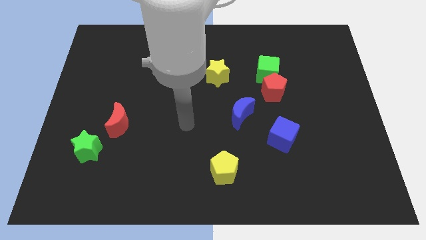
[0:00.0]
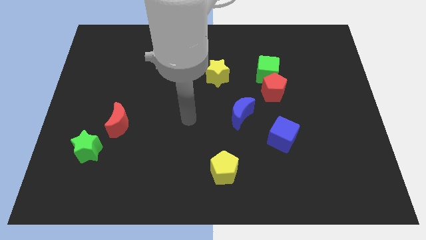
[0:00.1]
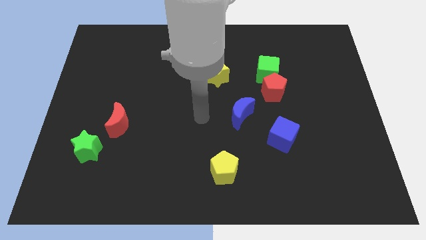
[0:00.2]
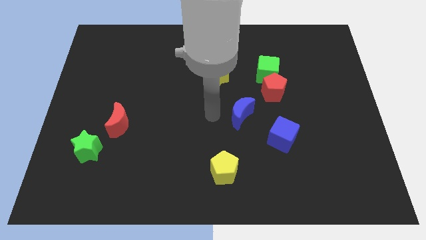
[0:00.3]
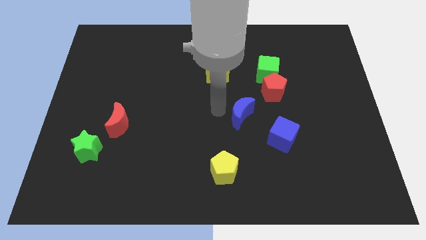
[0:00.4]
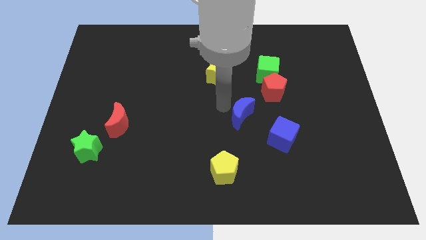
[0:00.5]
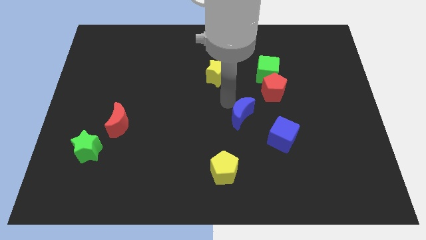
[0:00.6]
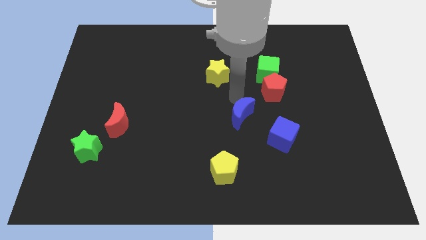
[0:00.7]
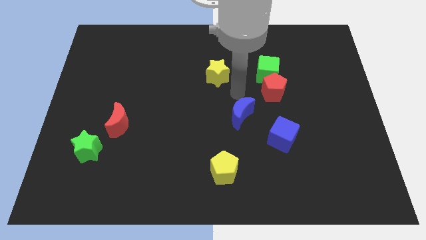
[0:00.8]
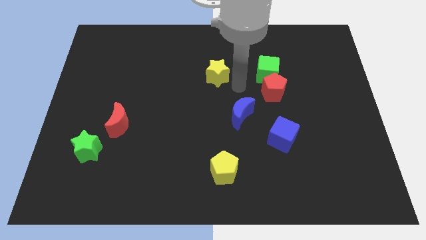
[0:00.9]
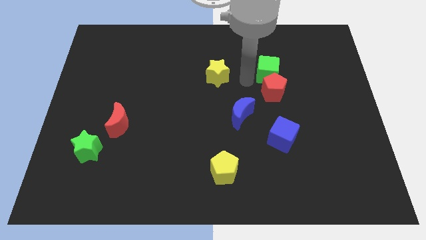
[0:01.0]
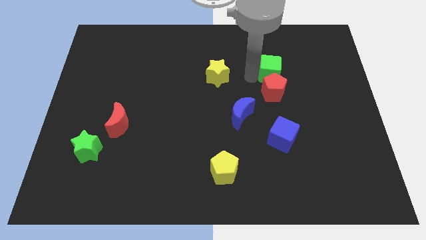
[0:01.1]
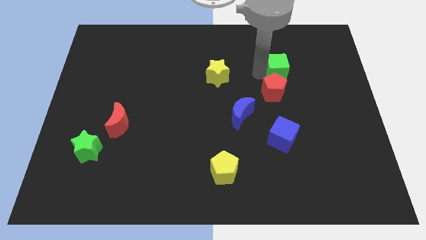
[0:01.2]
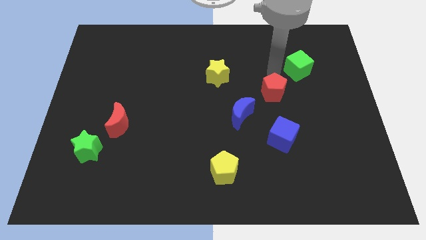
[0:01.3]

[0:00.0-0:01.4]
move the red pentagon away from the green cube

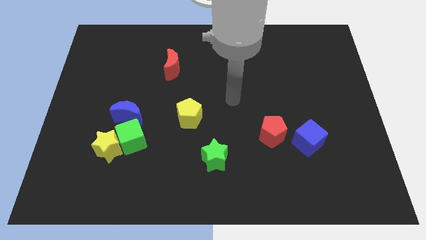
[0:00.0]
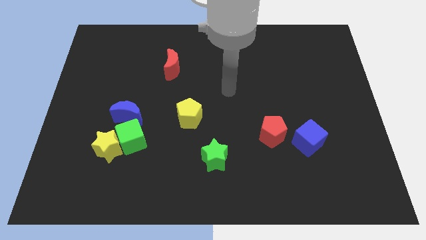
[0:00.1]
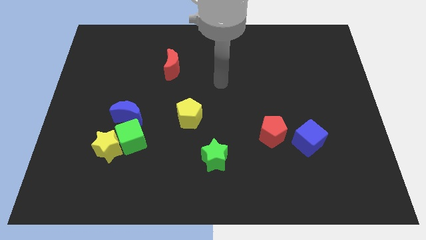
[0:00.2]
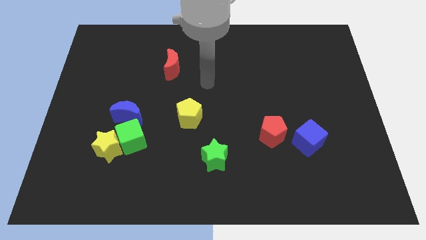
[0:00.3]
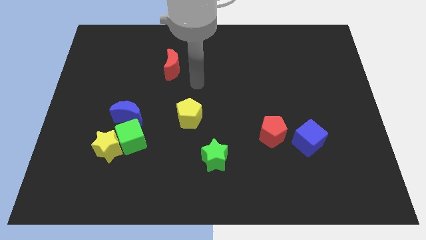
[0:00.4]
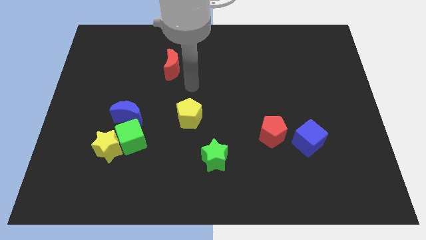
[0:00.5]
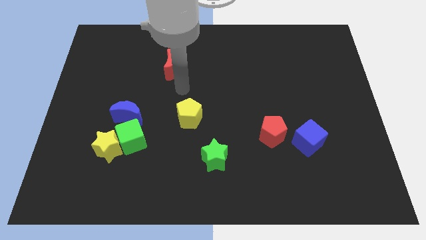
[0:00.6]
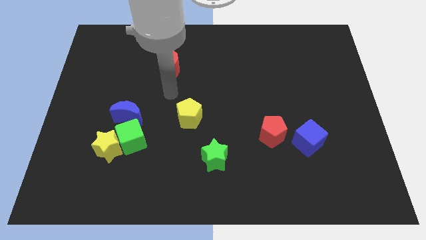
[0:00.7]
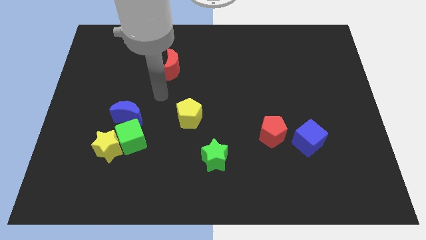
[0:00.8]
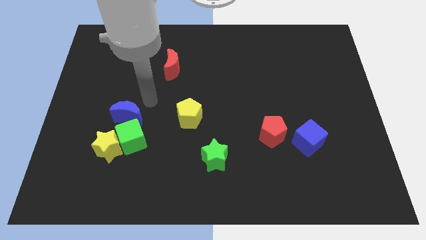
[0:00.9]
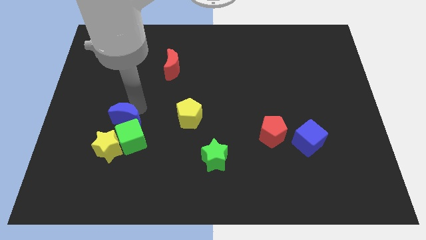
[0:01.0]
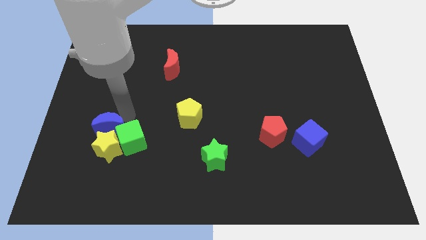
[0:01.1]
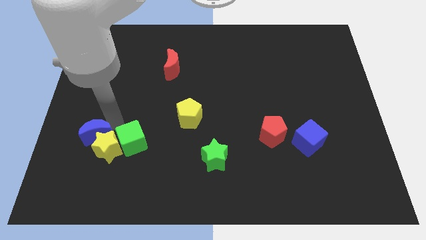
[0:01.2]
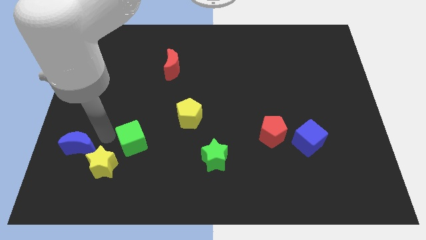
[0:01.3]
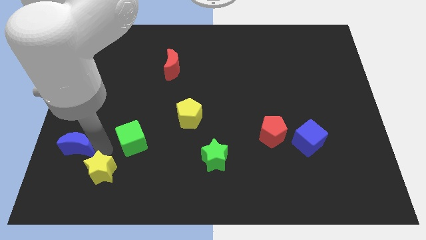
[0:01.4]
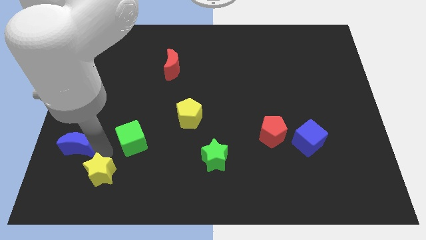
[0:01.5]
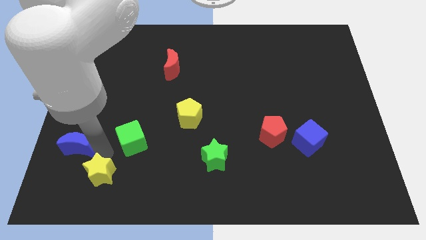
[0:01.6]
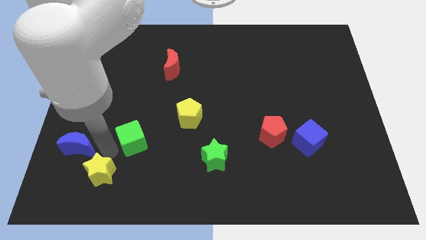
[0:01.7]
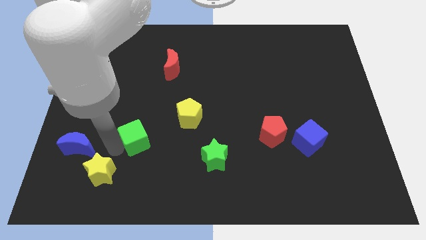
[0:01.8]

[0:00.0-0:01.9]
separate the green cube from the yellow star and blue moon

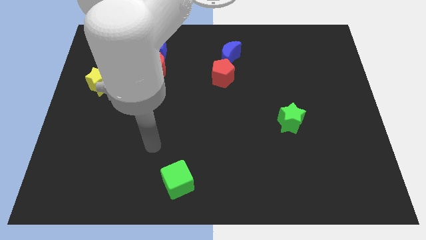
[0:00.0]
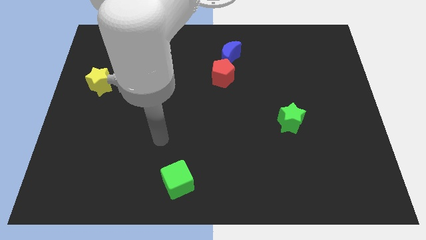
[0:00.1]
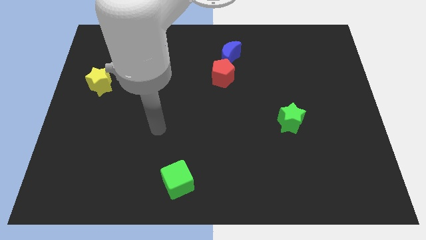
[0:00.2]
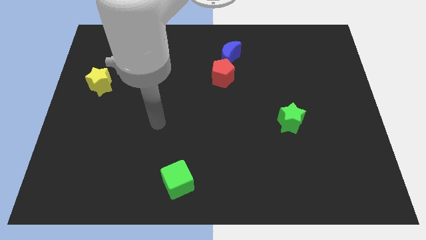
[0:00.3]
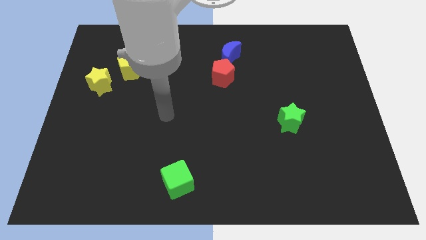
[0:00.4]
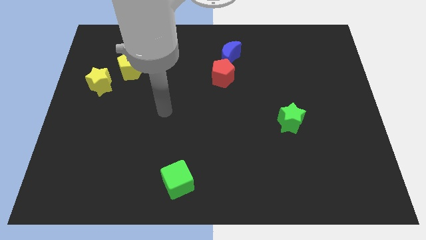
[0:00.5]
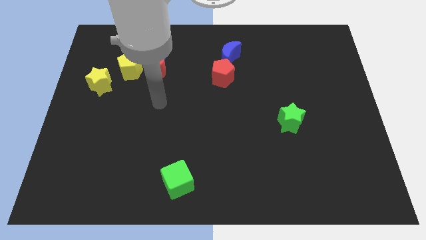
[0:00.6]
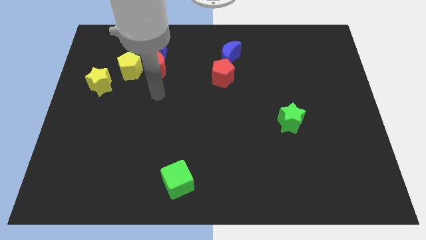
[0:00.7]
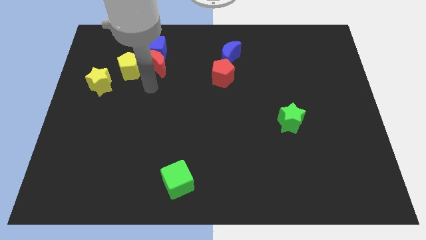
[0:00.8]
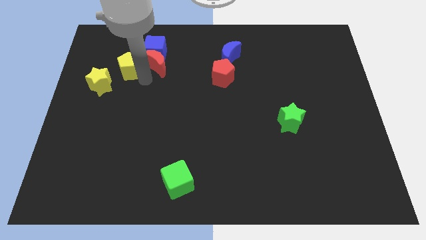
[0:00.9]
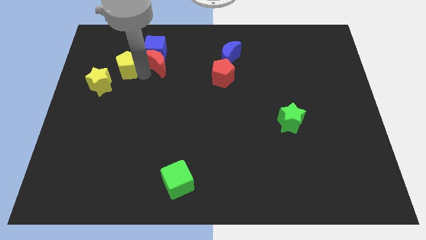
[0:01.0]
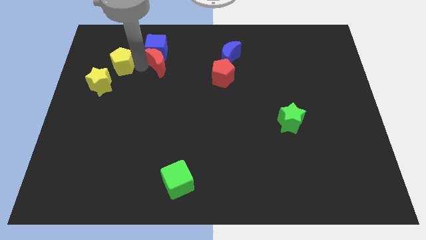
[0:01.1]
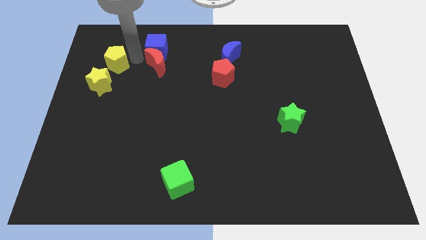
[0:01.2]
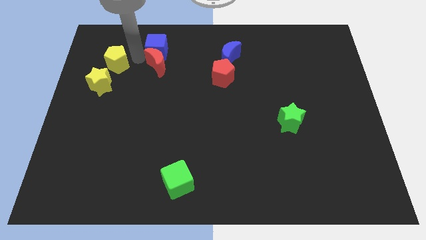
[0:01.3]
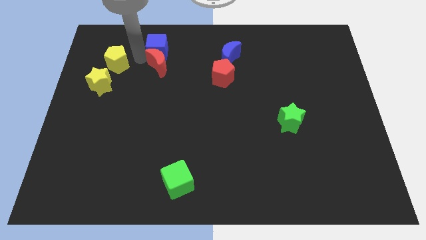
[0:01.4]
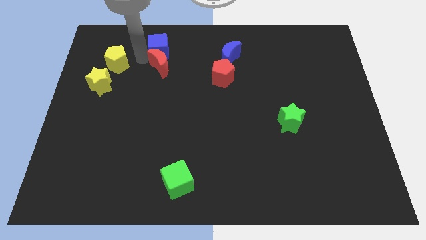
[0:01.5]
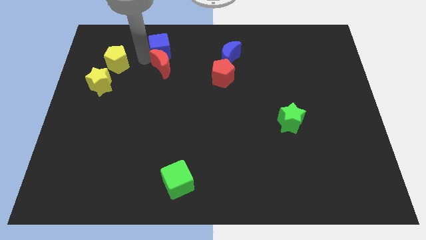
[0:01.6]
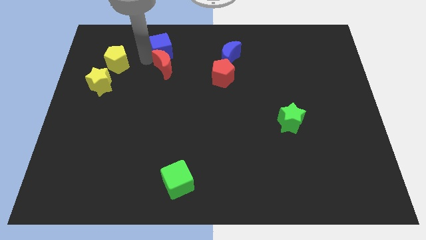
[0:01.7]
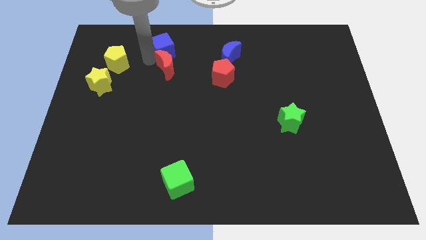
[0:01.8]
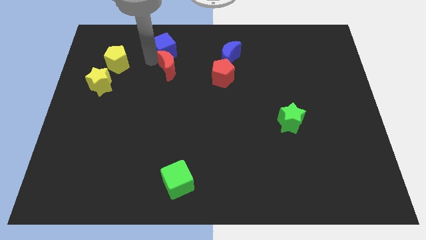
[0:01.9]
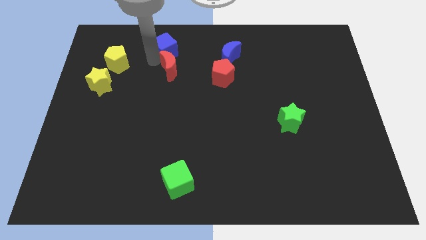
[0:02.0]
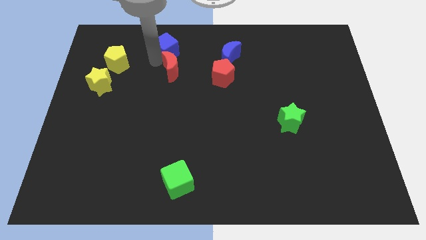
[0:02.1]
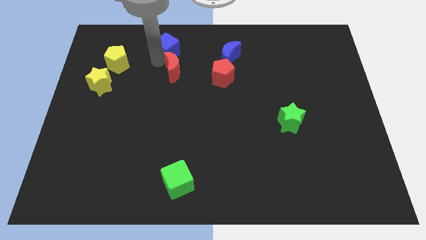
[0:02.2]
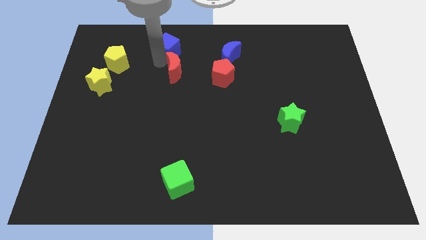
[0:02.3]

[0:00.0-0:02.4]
separate the red moon from the blue cube and yellow pentagon

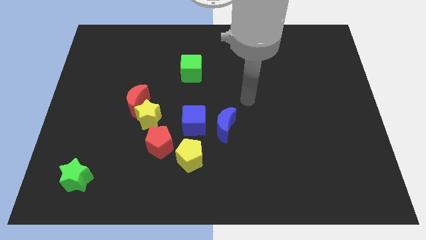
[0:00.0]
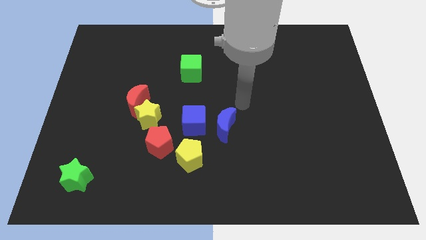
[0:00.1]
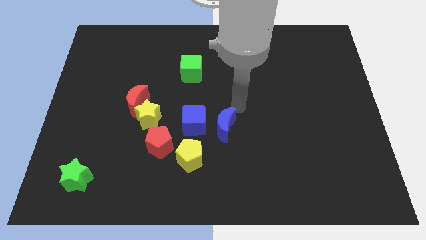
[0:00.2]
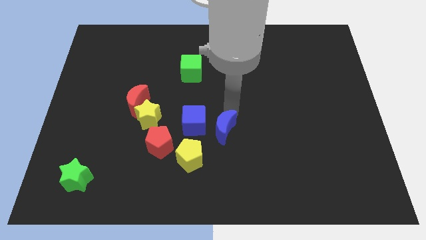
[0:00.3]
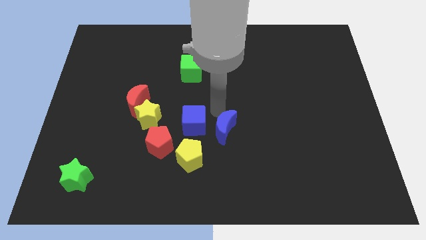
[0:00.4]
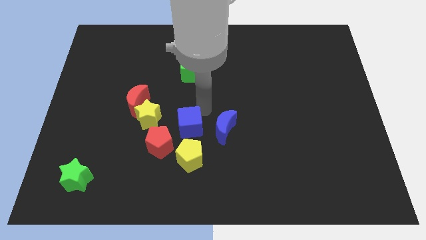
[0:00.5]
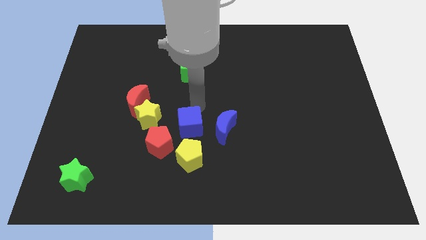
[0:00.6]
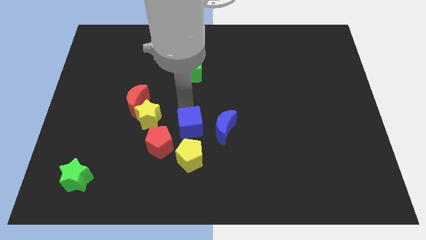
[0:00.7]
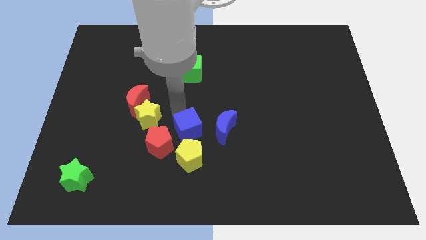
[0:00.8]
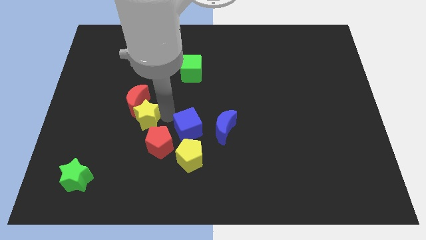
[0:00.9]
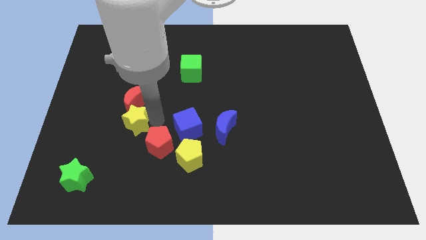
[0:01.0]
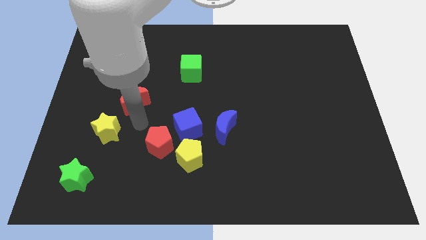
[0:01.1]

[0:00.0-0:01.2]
separate the red moon from the yellow star

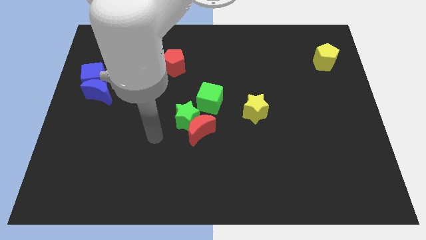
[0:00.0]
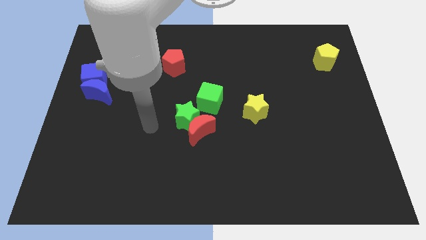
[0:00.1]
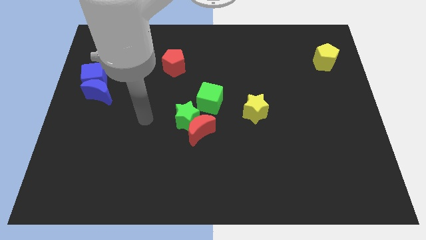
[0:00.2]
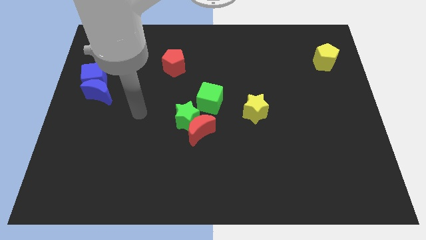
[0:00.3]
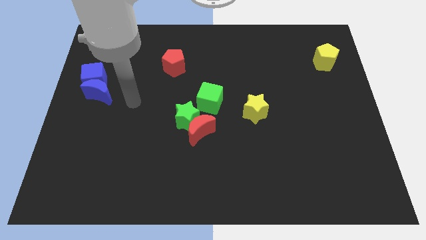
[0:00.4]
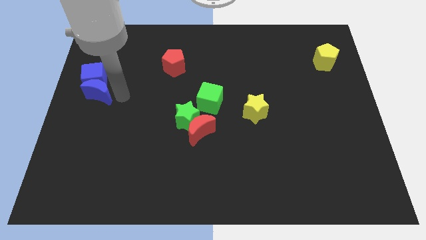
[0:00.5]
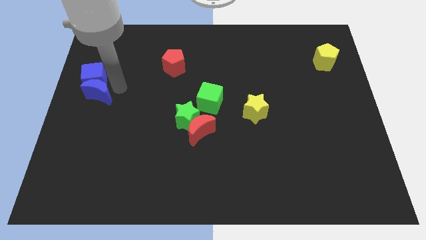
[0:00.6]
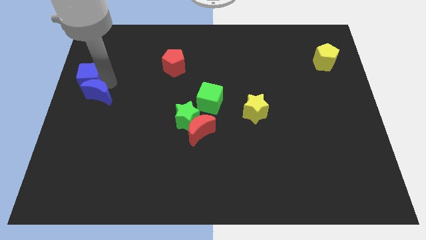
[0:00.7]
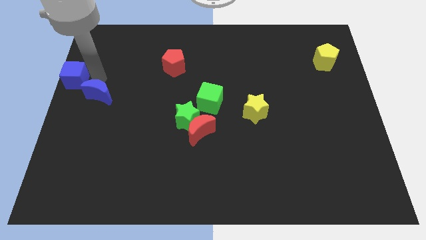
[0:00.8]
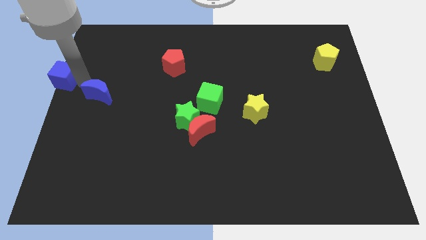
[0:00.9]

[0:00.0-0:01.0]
move the blue moon away from the blue cube

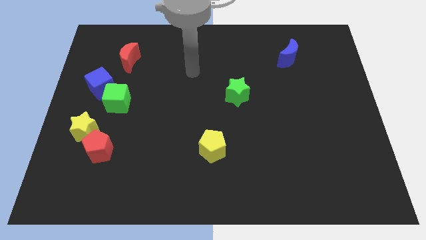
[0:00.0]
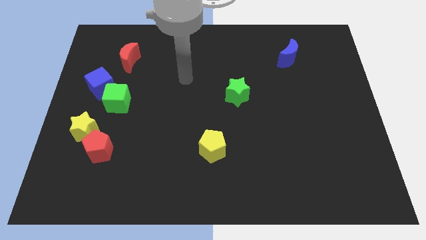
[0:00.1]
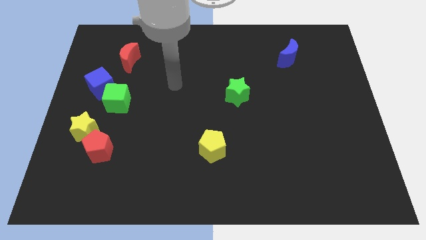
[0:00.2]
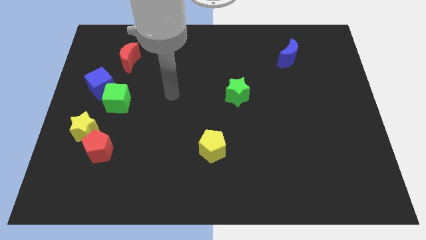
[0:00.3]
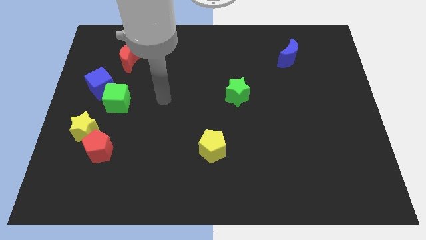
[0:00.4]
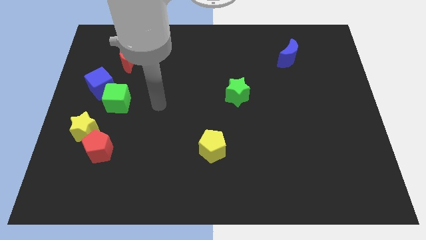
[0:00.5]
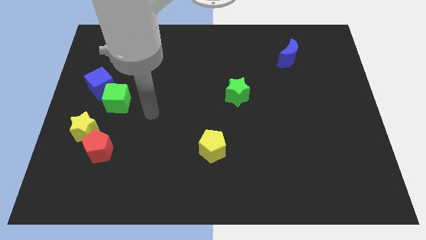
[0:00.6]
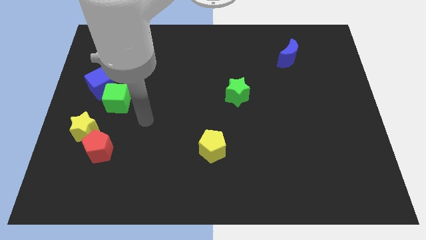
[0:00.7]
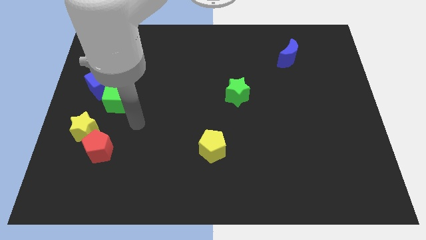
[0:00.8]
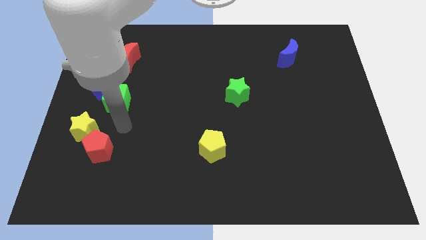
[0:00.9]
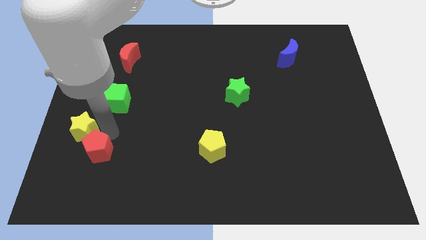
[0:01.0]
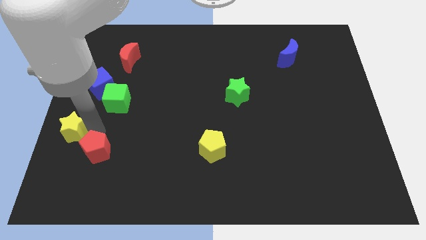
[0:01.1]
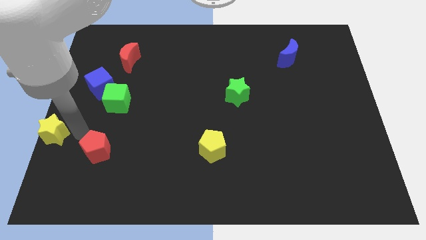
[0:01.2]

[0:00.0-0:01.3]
pull the red pentagon apart from the yellow star

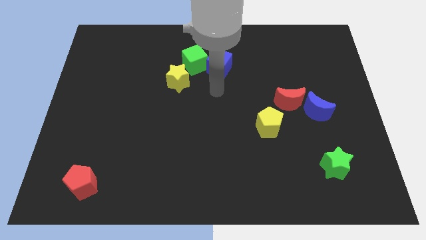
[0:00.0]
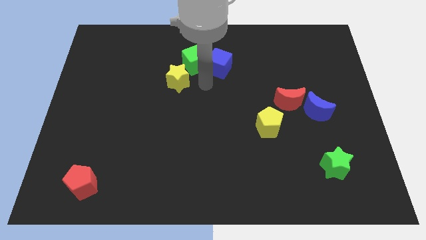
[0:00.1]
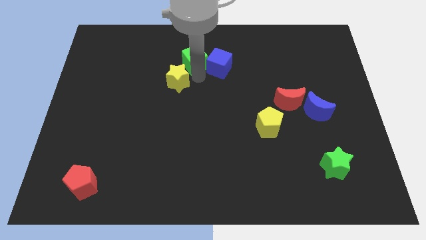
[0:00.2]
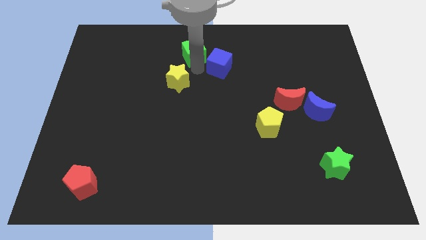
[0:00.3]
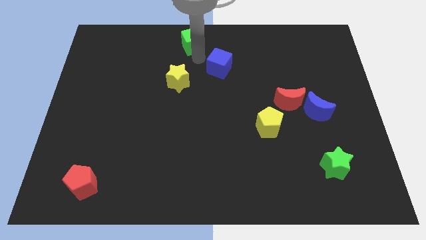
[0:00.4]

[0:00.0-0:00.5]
pull the blue cube apart from the green cube
